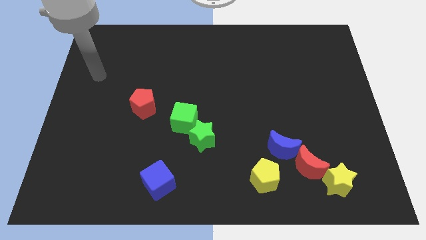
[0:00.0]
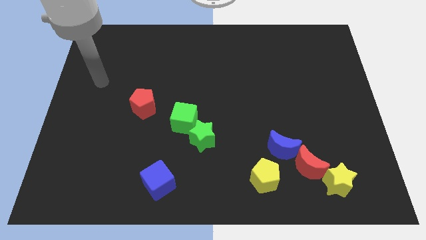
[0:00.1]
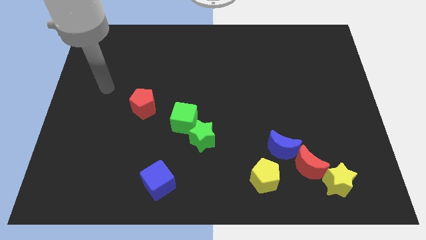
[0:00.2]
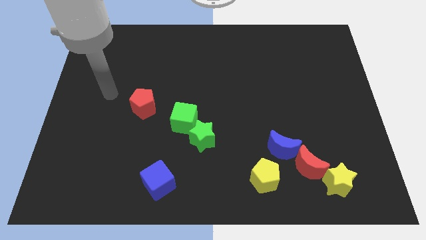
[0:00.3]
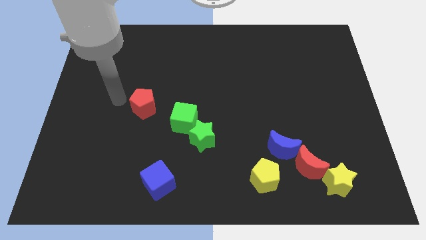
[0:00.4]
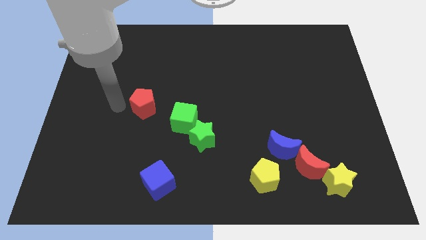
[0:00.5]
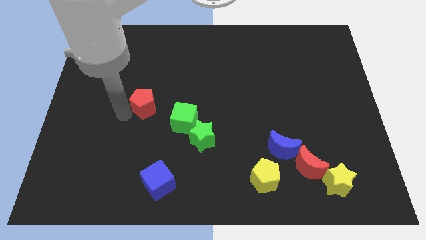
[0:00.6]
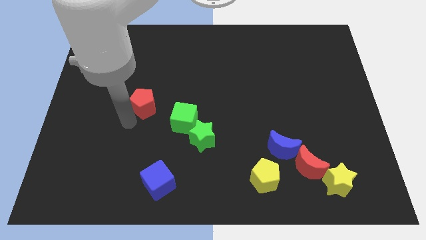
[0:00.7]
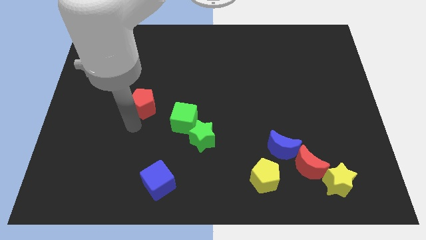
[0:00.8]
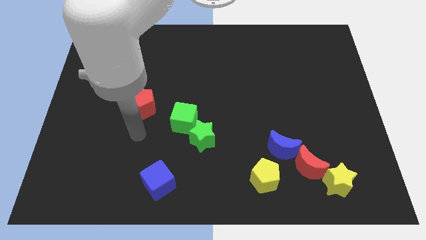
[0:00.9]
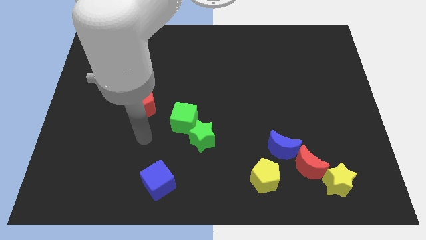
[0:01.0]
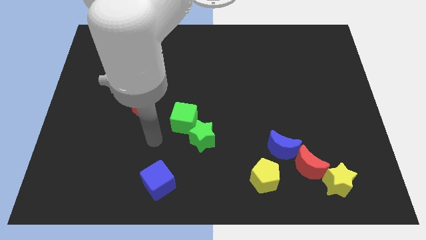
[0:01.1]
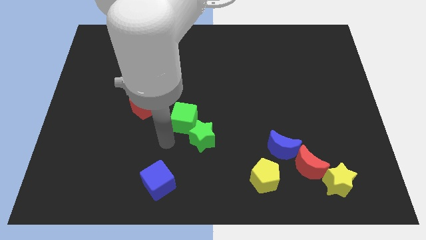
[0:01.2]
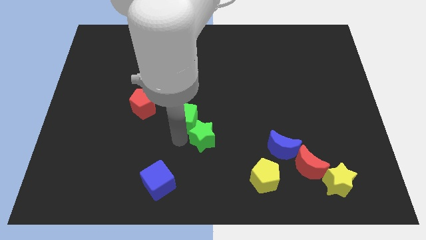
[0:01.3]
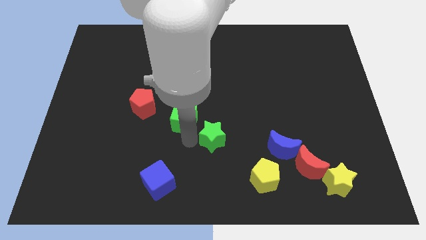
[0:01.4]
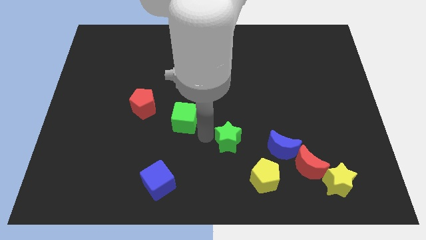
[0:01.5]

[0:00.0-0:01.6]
separate the green cube from the green star

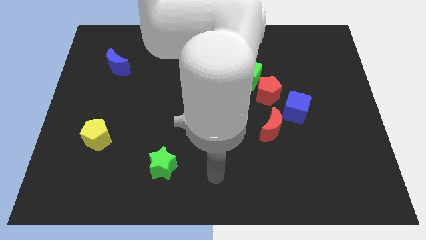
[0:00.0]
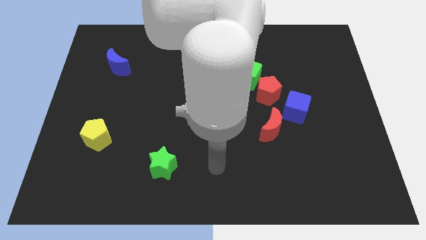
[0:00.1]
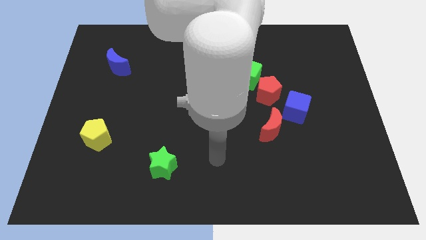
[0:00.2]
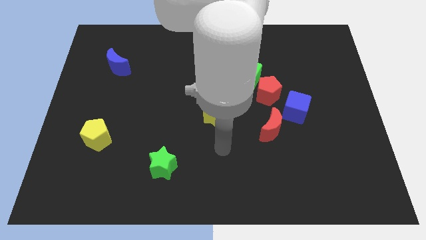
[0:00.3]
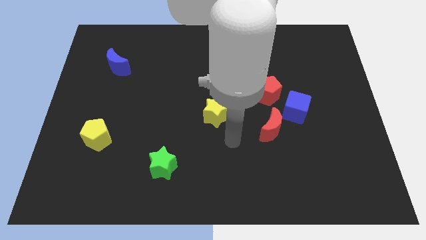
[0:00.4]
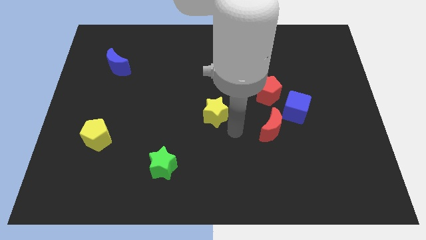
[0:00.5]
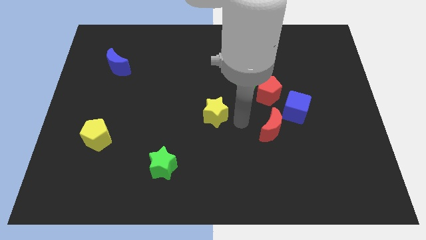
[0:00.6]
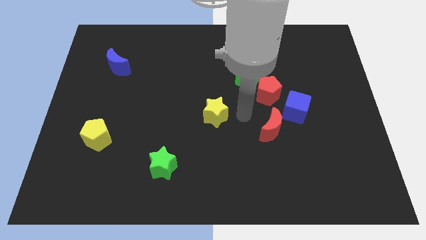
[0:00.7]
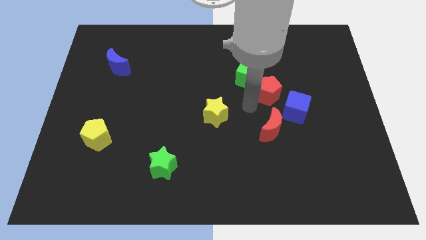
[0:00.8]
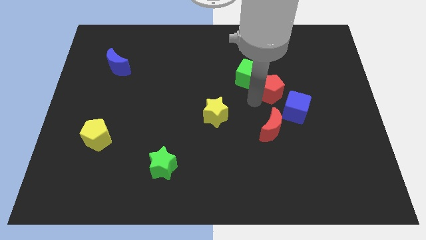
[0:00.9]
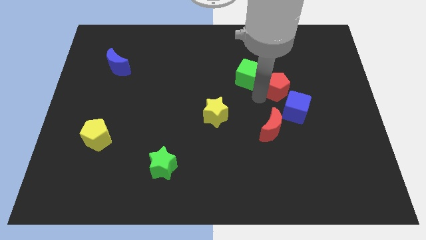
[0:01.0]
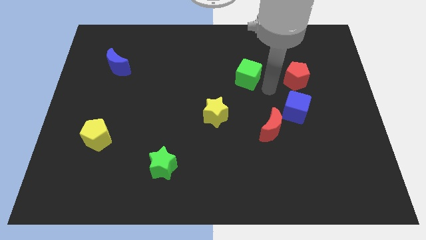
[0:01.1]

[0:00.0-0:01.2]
pull the green cube apart from the red pentagon

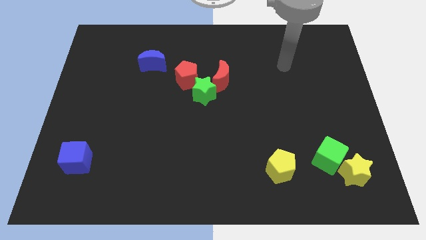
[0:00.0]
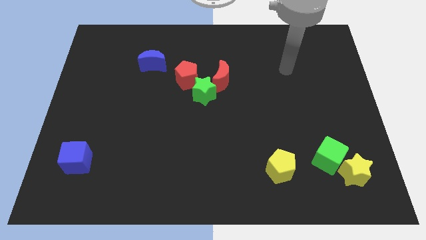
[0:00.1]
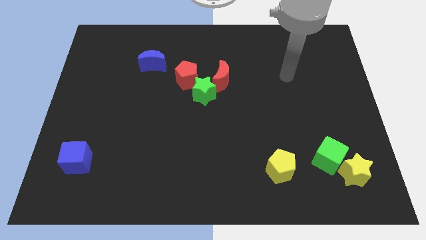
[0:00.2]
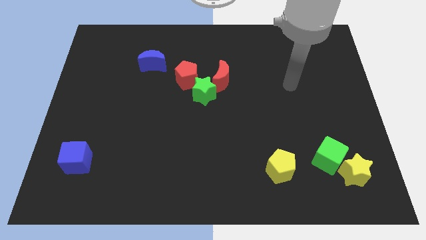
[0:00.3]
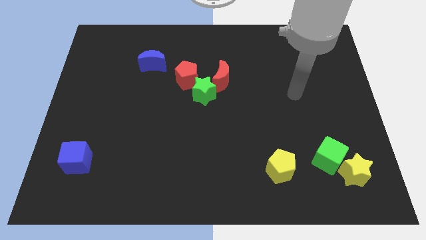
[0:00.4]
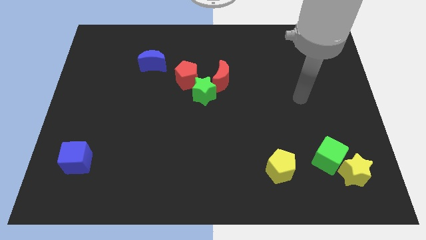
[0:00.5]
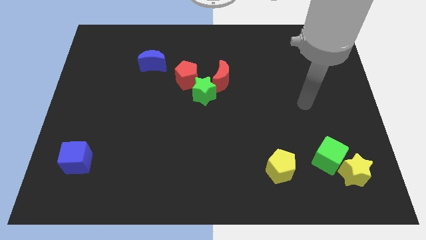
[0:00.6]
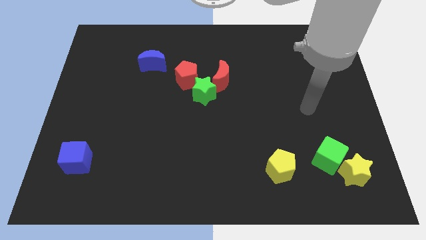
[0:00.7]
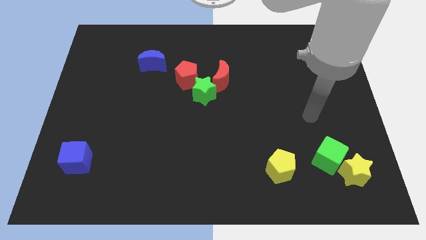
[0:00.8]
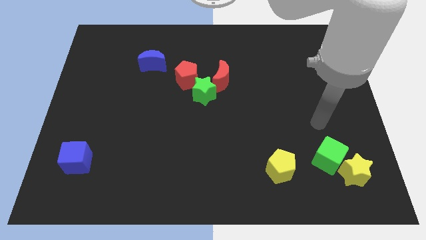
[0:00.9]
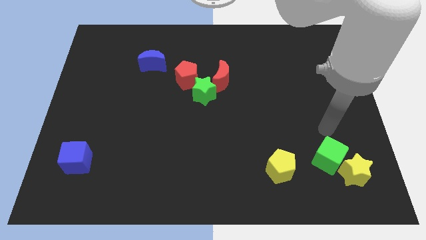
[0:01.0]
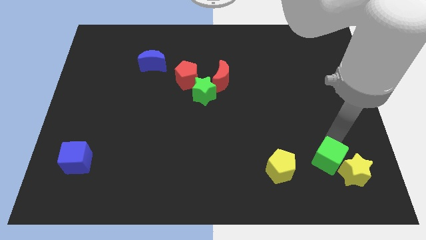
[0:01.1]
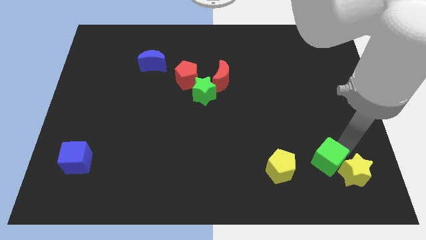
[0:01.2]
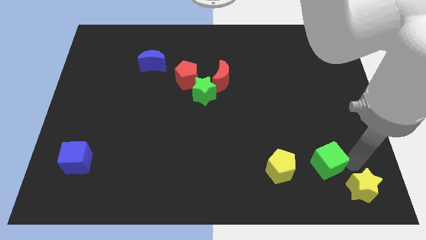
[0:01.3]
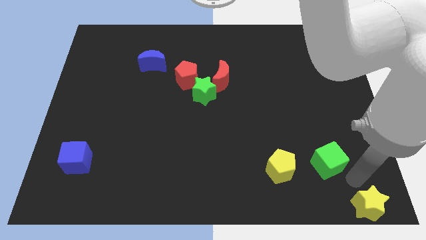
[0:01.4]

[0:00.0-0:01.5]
pull the green cube apart from the yellow star

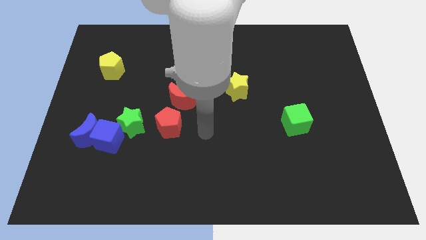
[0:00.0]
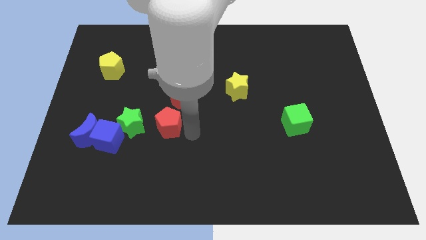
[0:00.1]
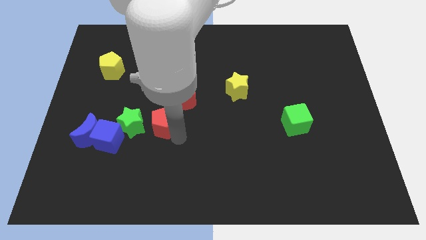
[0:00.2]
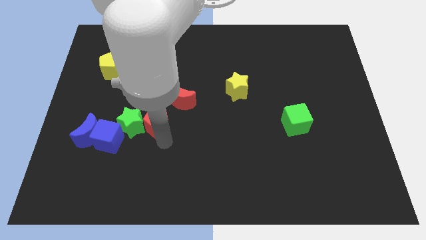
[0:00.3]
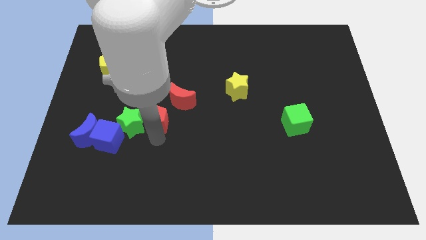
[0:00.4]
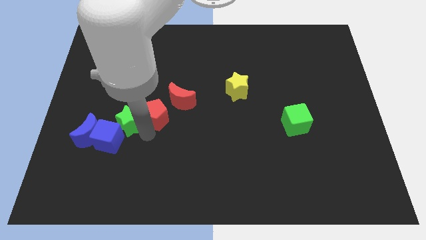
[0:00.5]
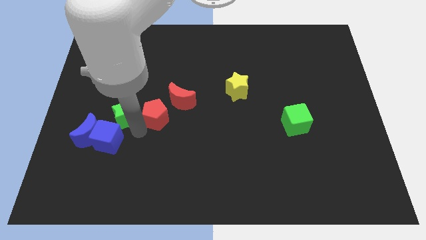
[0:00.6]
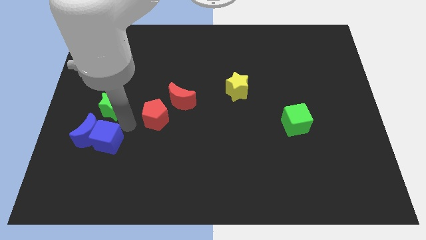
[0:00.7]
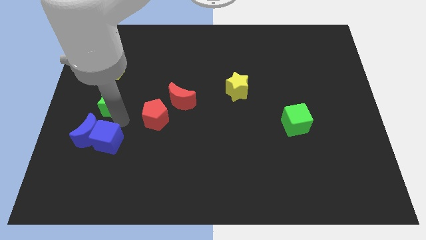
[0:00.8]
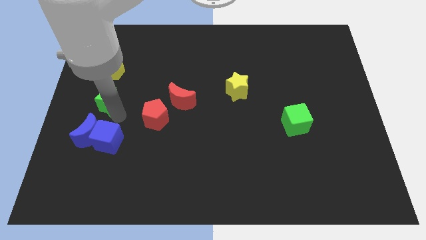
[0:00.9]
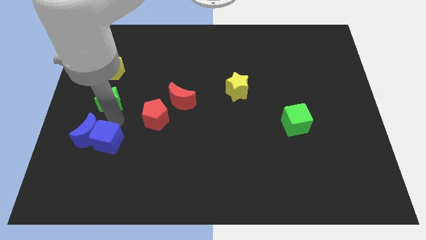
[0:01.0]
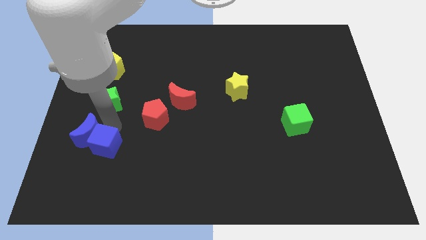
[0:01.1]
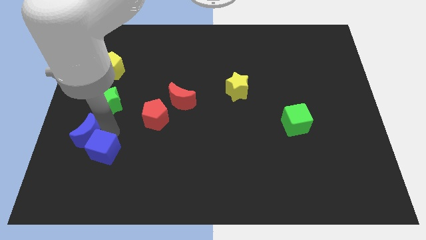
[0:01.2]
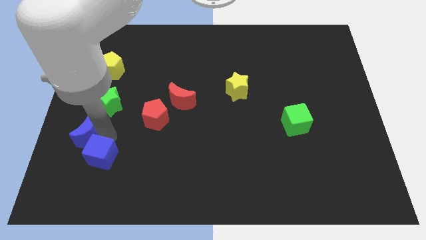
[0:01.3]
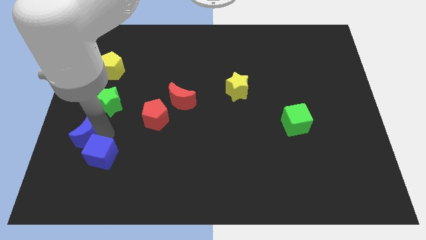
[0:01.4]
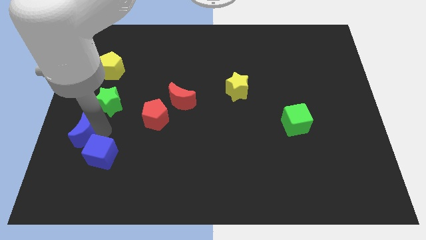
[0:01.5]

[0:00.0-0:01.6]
separate the blue cube from the blue moon and green star

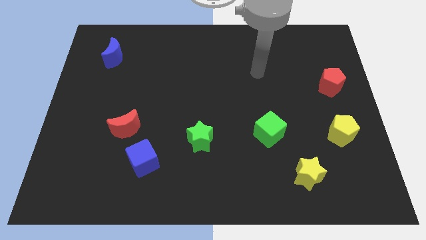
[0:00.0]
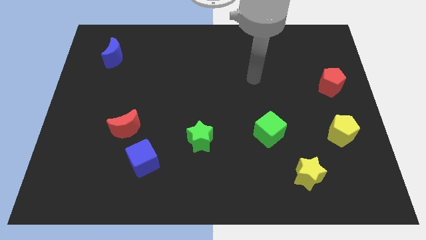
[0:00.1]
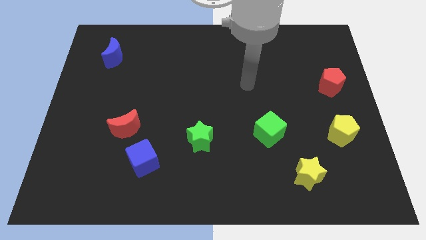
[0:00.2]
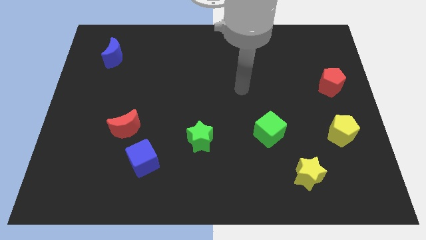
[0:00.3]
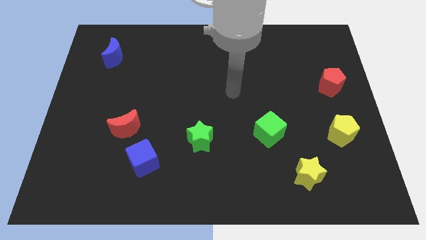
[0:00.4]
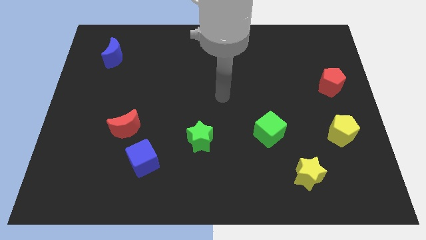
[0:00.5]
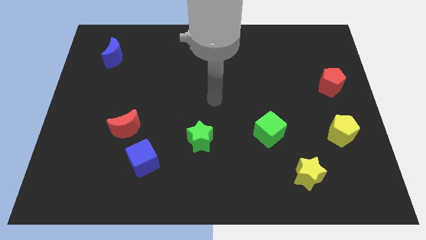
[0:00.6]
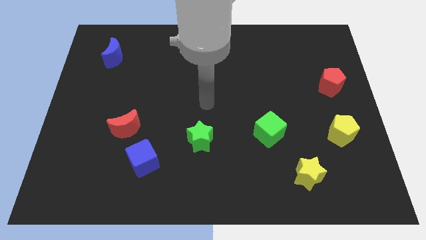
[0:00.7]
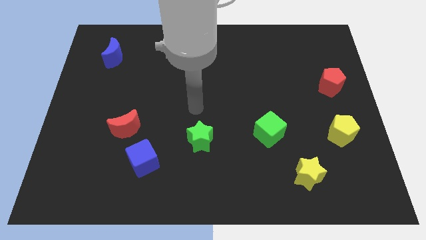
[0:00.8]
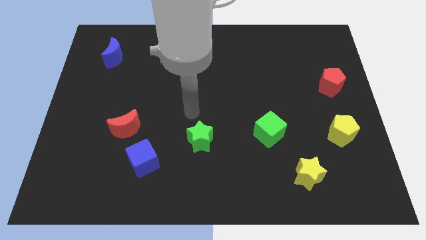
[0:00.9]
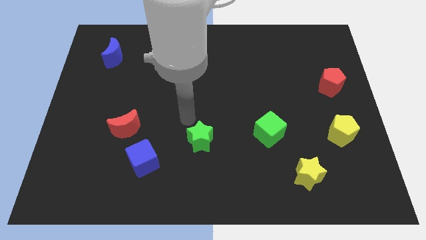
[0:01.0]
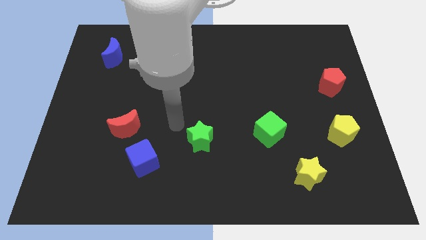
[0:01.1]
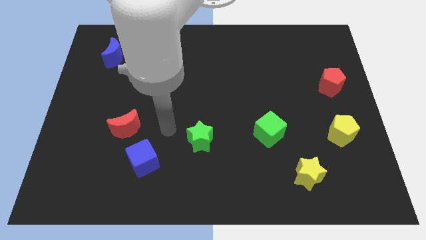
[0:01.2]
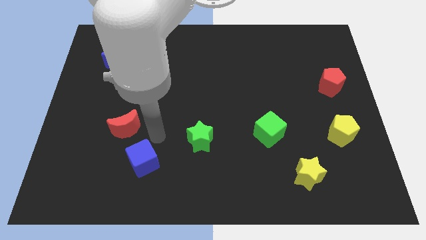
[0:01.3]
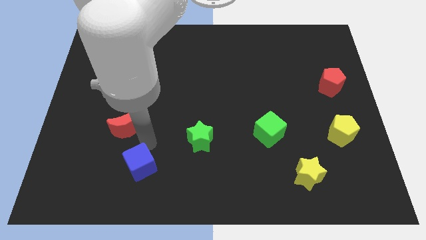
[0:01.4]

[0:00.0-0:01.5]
move the red moon away from the blue cube

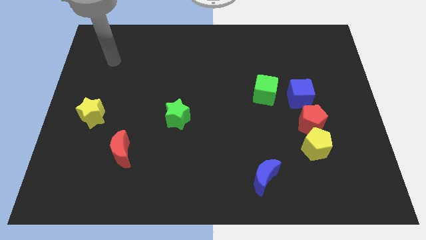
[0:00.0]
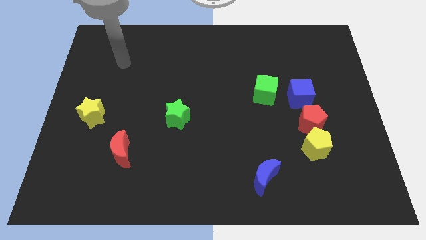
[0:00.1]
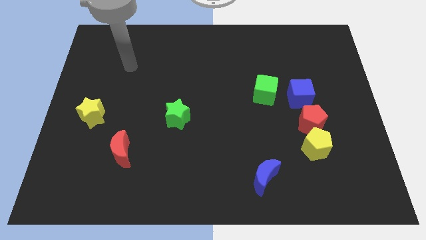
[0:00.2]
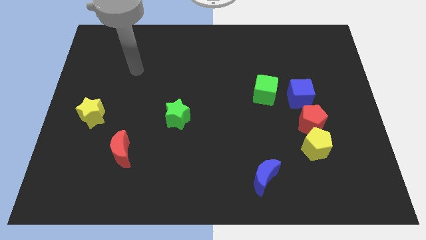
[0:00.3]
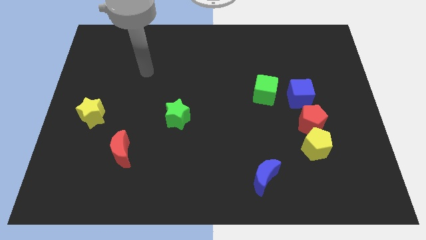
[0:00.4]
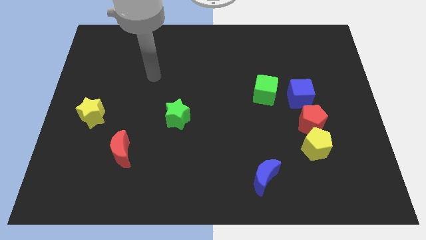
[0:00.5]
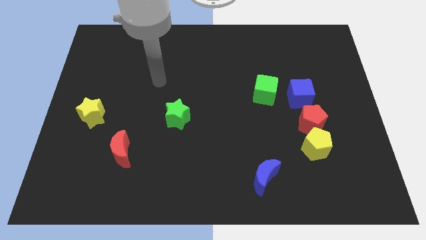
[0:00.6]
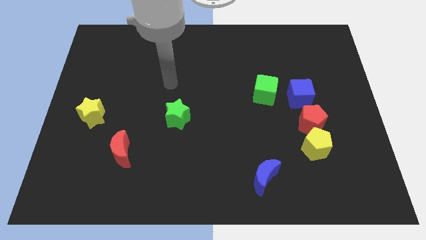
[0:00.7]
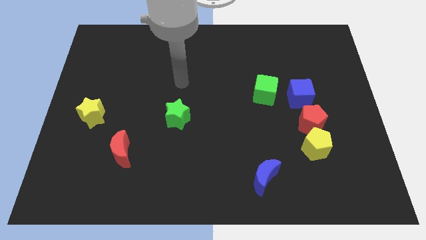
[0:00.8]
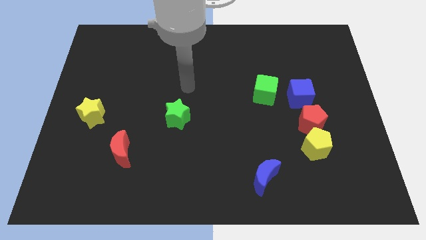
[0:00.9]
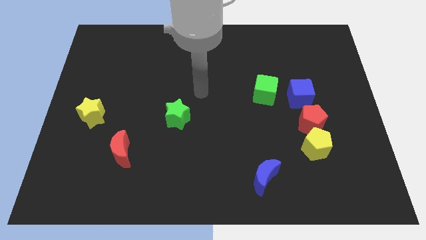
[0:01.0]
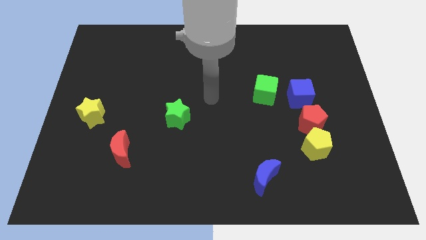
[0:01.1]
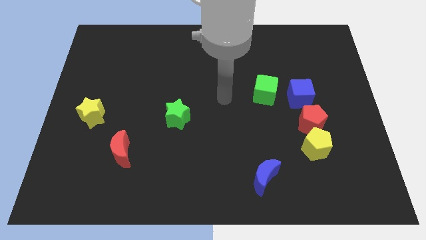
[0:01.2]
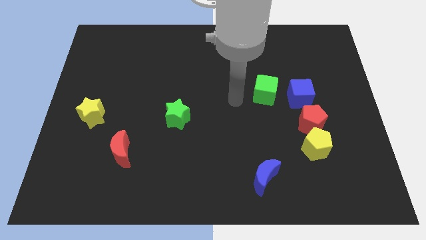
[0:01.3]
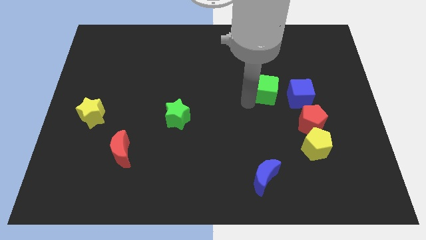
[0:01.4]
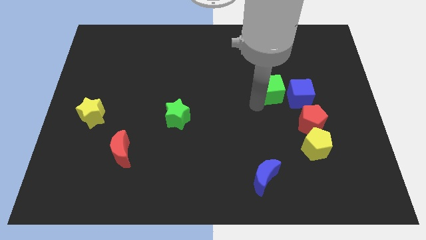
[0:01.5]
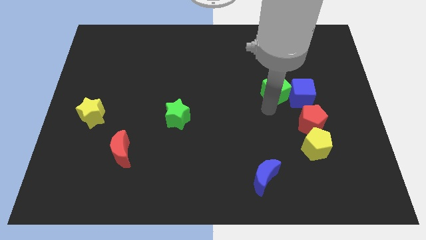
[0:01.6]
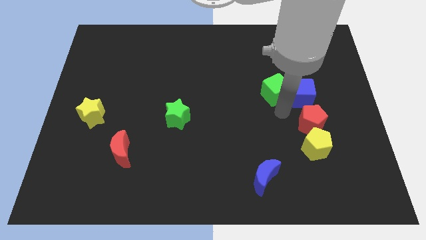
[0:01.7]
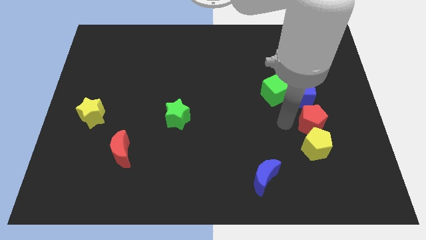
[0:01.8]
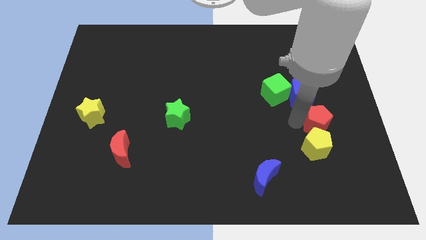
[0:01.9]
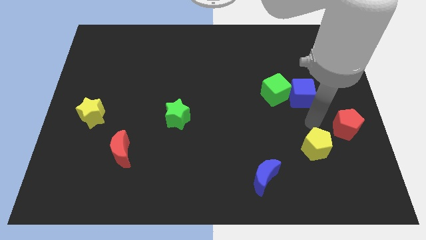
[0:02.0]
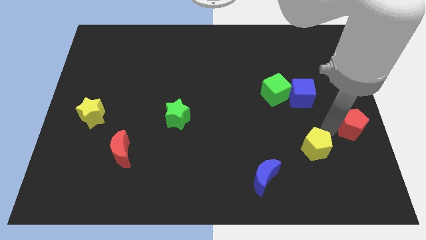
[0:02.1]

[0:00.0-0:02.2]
pull the yellow pentagon apart from the red pentagon
